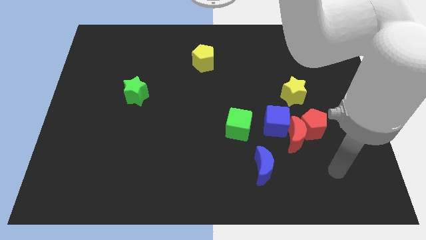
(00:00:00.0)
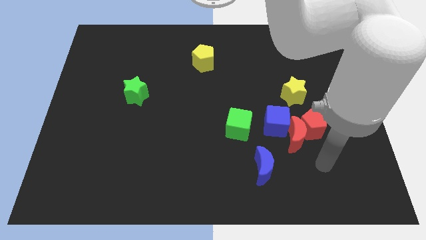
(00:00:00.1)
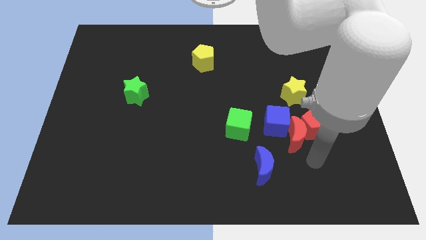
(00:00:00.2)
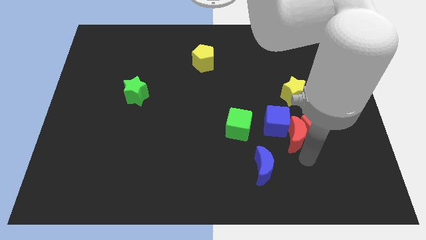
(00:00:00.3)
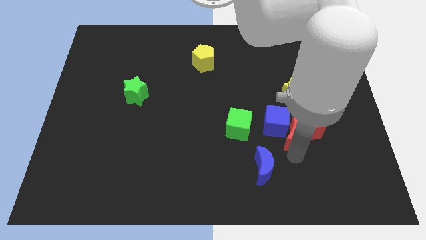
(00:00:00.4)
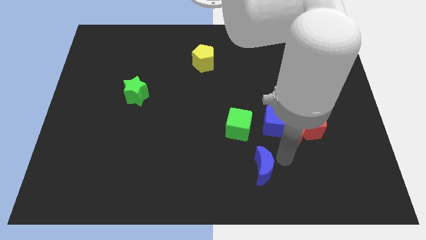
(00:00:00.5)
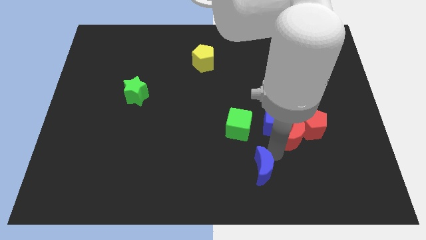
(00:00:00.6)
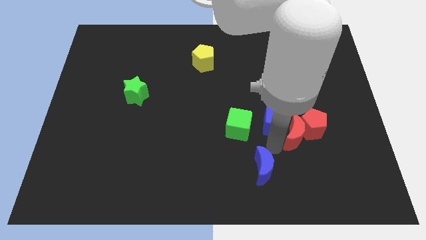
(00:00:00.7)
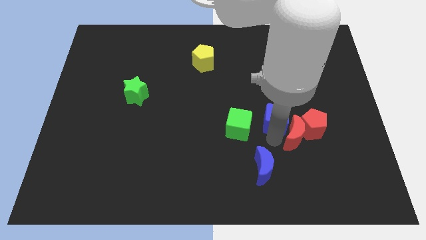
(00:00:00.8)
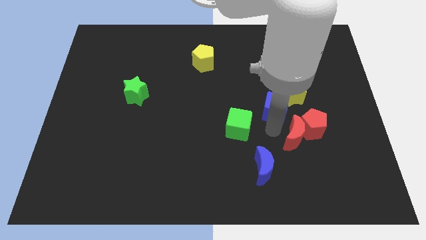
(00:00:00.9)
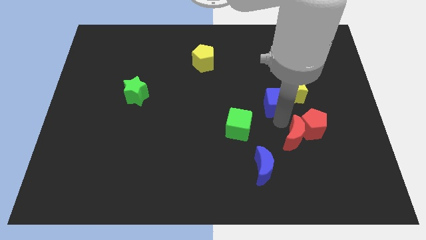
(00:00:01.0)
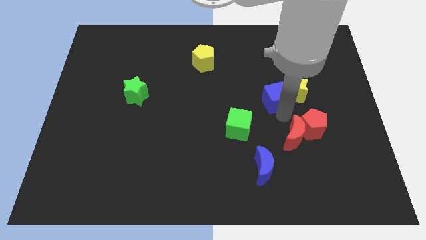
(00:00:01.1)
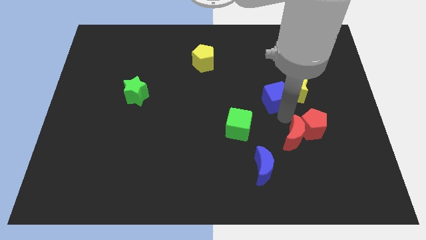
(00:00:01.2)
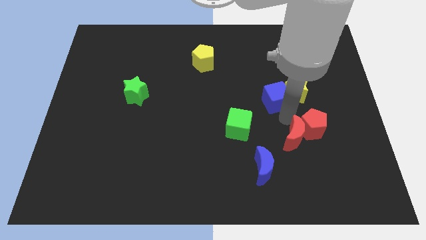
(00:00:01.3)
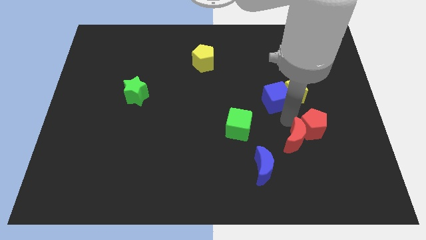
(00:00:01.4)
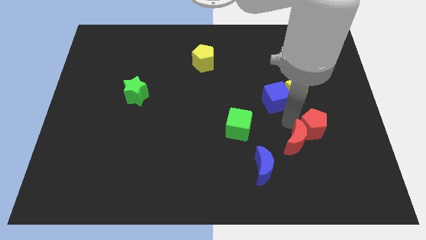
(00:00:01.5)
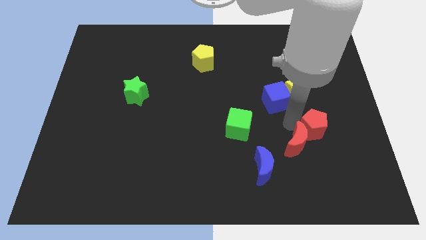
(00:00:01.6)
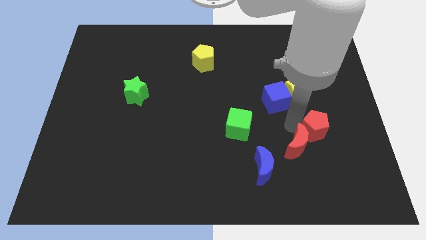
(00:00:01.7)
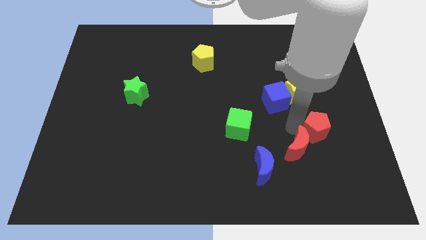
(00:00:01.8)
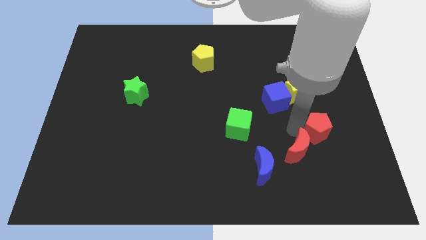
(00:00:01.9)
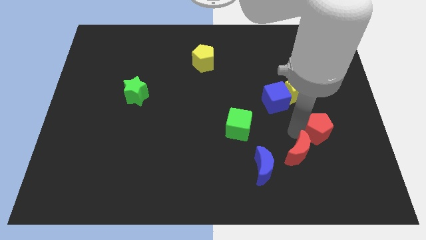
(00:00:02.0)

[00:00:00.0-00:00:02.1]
separate the red moon from the red pentagon and blue cube

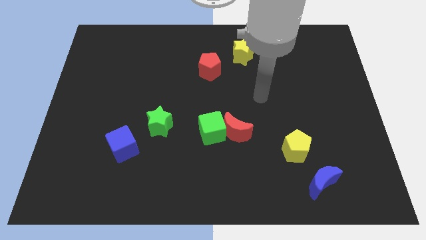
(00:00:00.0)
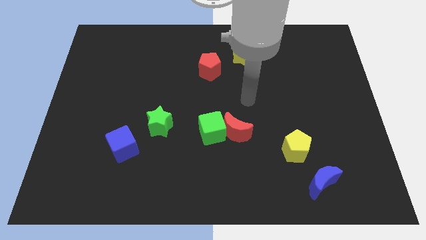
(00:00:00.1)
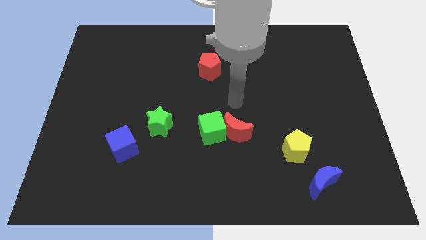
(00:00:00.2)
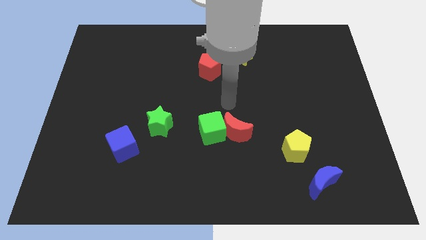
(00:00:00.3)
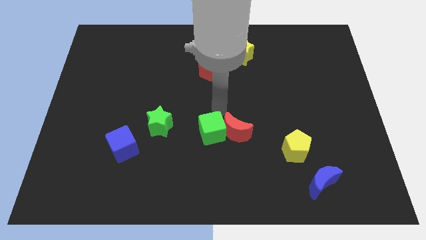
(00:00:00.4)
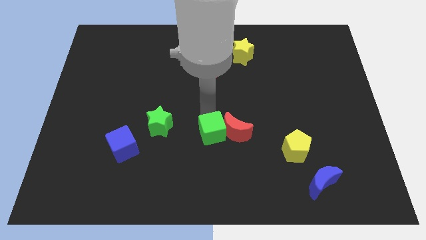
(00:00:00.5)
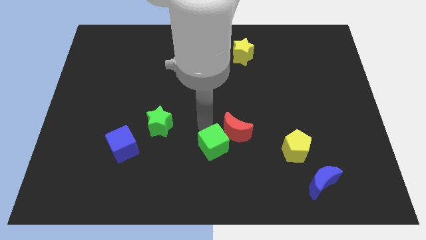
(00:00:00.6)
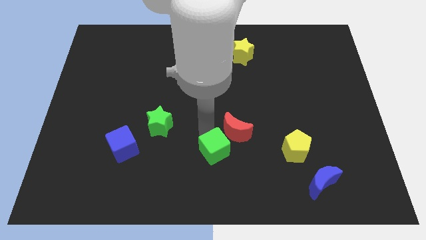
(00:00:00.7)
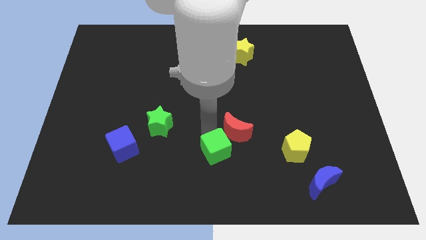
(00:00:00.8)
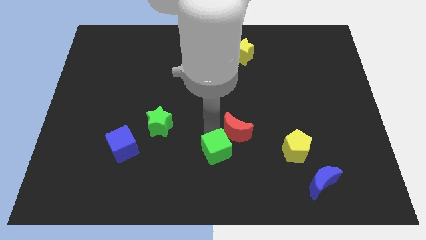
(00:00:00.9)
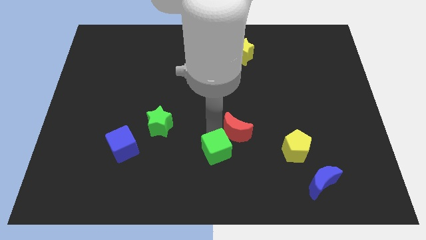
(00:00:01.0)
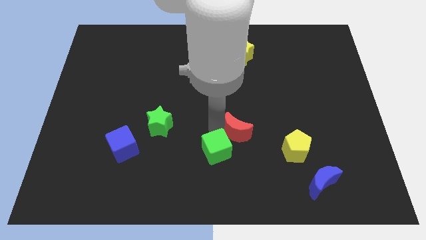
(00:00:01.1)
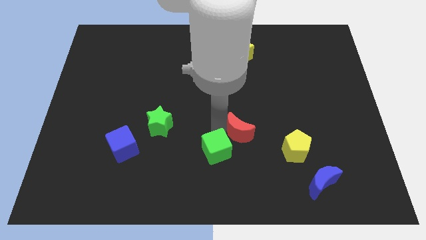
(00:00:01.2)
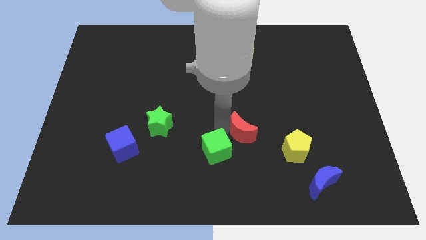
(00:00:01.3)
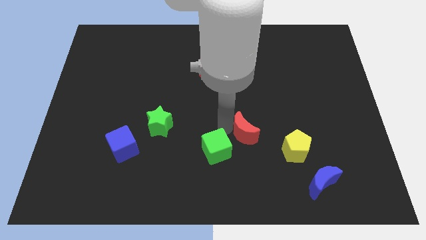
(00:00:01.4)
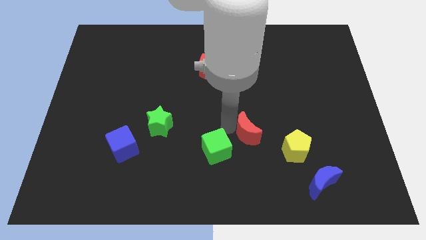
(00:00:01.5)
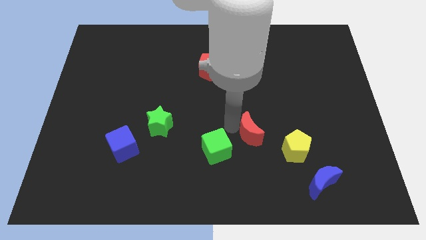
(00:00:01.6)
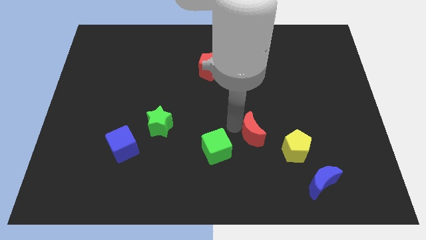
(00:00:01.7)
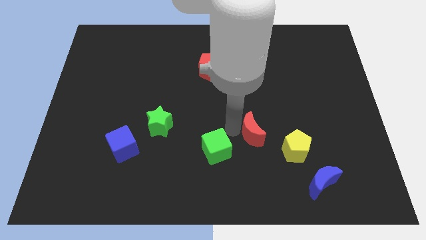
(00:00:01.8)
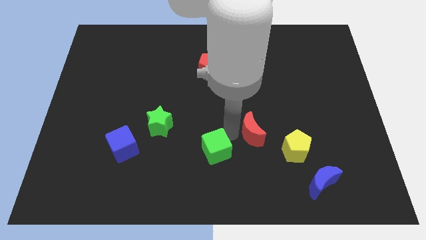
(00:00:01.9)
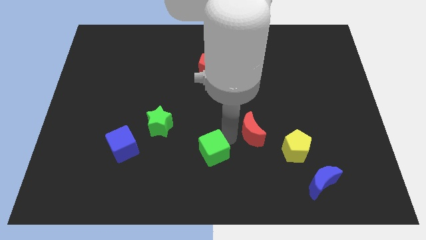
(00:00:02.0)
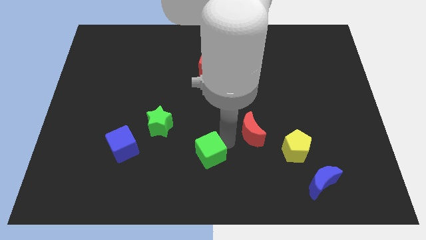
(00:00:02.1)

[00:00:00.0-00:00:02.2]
move the red moon away from the green cube

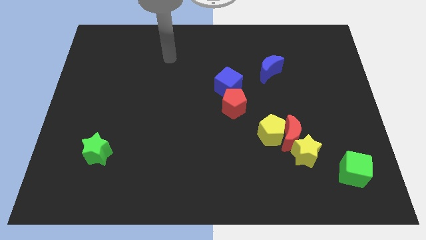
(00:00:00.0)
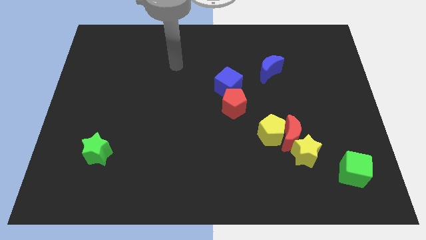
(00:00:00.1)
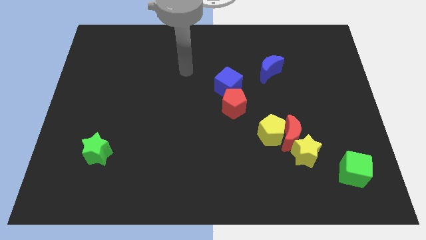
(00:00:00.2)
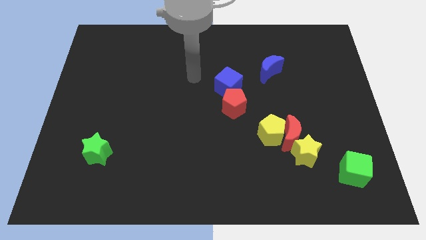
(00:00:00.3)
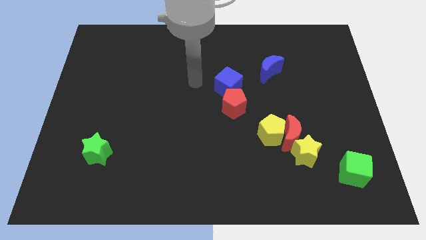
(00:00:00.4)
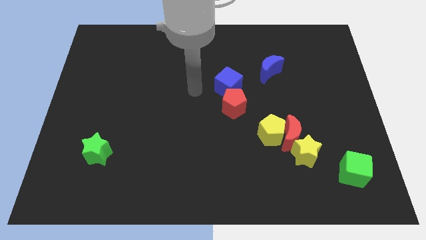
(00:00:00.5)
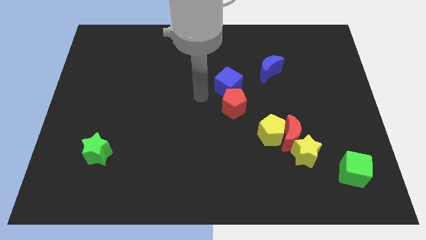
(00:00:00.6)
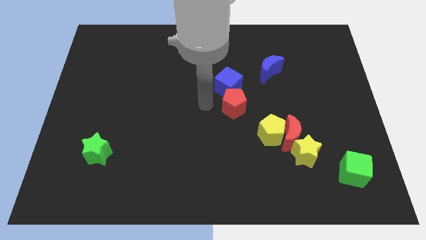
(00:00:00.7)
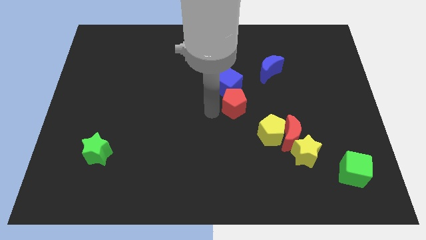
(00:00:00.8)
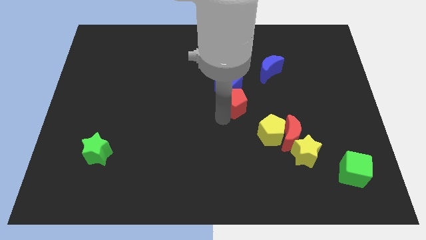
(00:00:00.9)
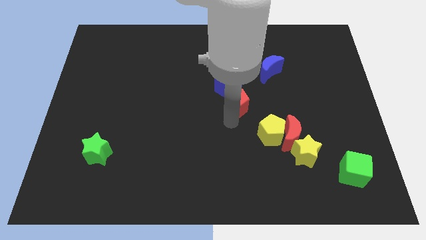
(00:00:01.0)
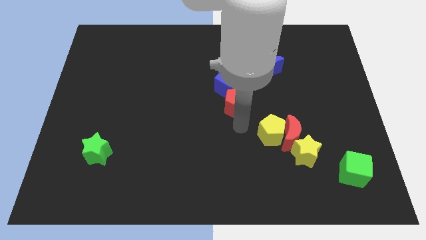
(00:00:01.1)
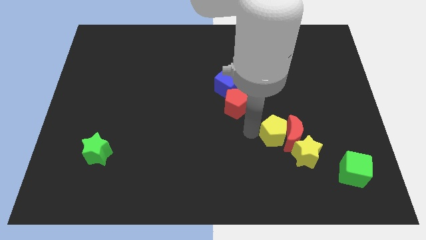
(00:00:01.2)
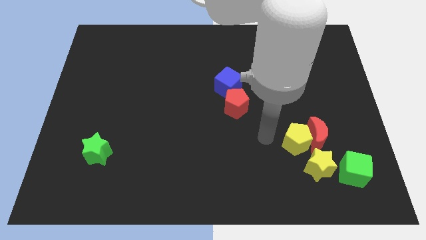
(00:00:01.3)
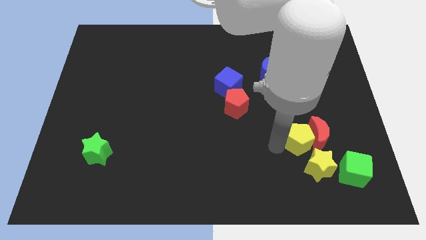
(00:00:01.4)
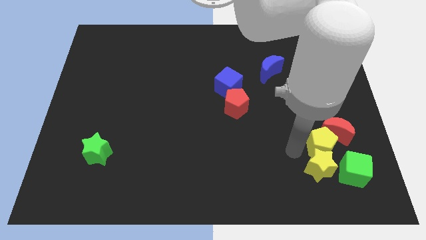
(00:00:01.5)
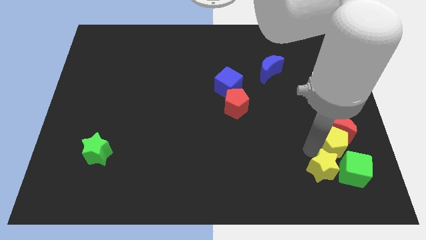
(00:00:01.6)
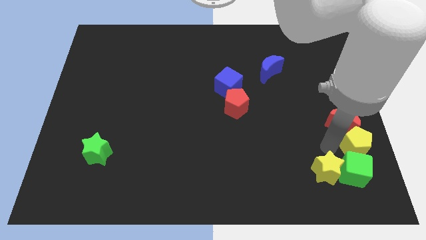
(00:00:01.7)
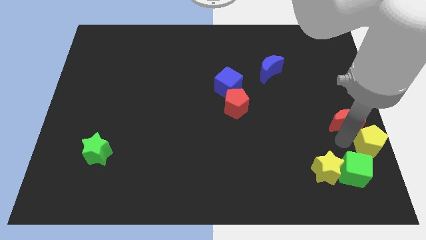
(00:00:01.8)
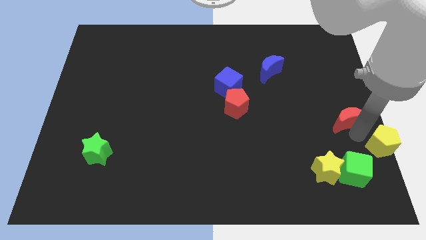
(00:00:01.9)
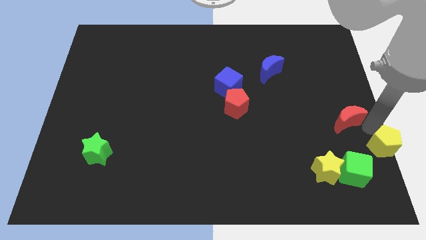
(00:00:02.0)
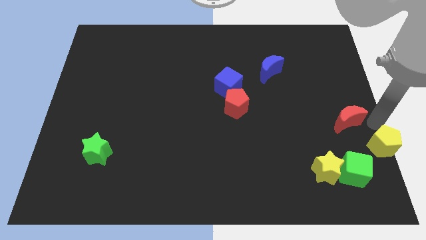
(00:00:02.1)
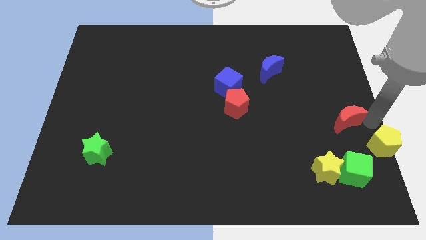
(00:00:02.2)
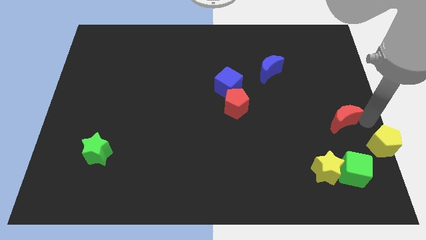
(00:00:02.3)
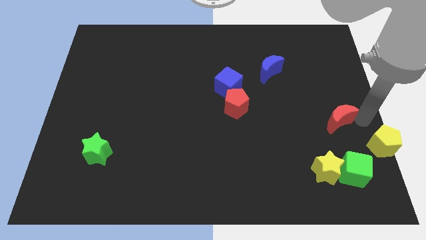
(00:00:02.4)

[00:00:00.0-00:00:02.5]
move the red moon away from the yellow pentagon and yellow star

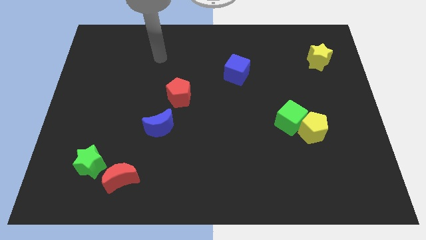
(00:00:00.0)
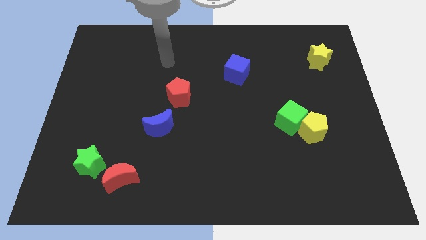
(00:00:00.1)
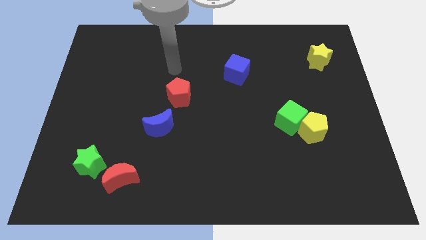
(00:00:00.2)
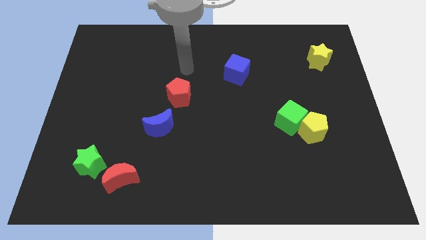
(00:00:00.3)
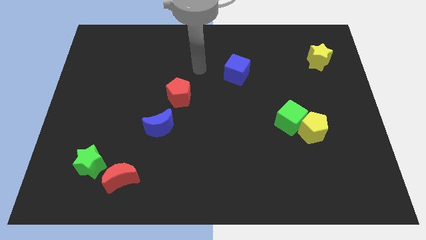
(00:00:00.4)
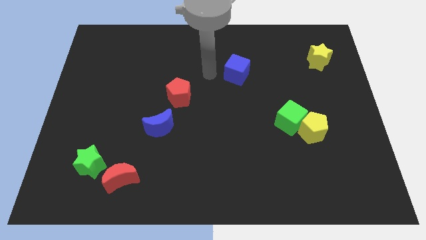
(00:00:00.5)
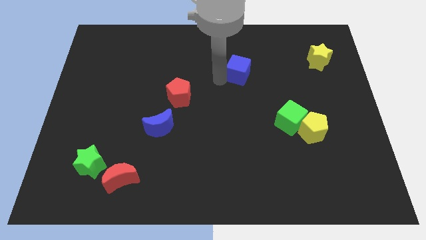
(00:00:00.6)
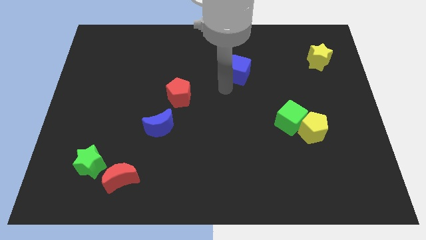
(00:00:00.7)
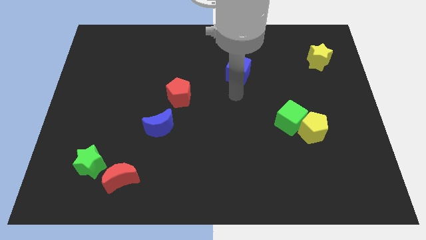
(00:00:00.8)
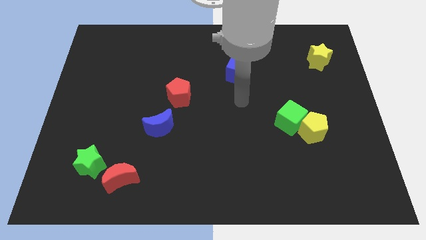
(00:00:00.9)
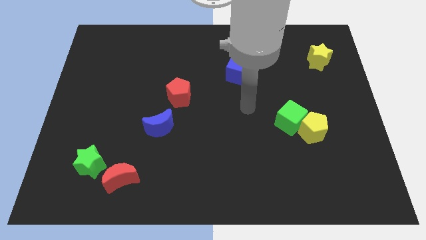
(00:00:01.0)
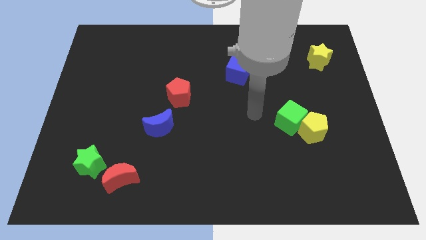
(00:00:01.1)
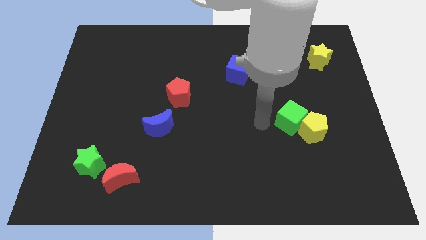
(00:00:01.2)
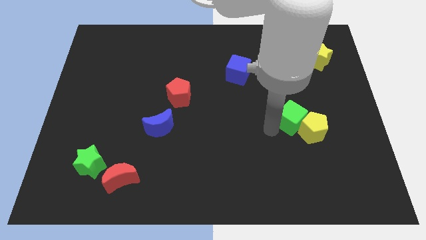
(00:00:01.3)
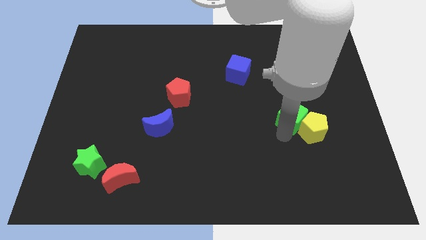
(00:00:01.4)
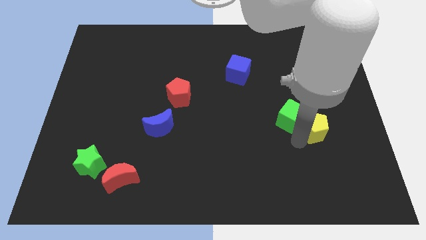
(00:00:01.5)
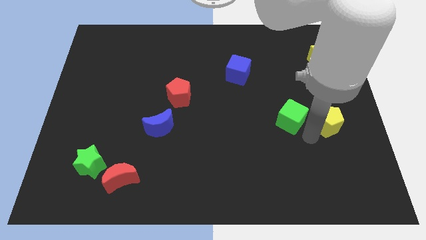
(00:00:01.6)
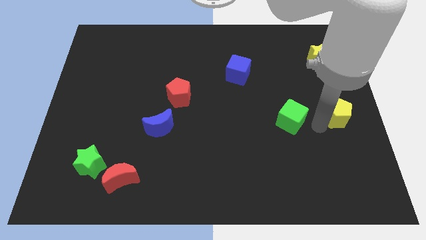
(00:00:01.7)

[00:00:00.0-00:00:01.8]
separate the green cube from the yellow pentagon

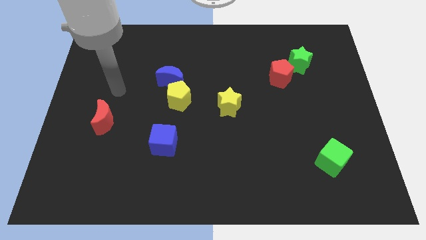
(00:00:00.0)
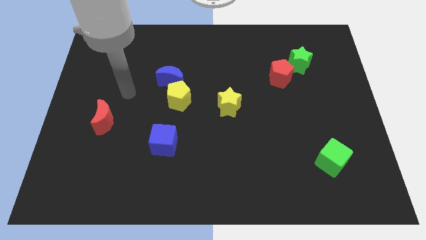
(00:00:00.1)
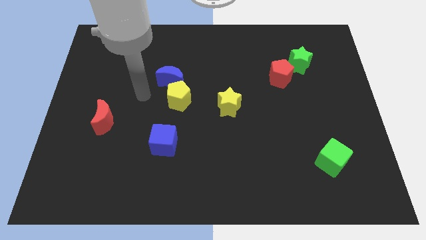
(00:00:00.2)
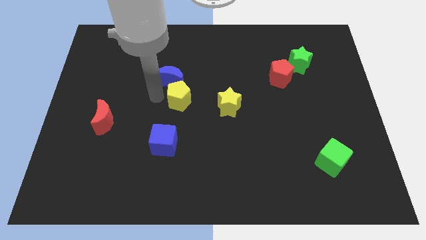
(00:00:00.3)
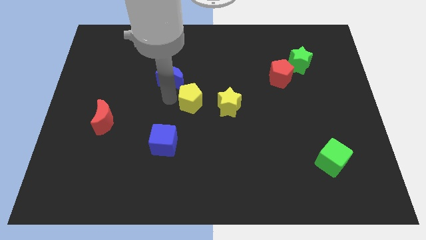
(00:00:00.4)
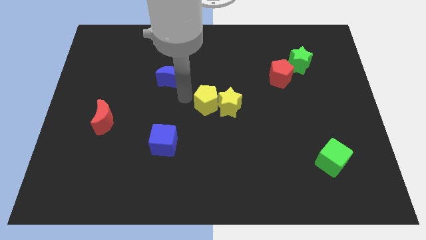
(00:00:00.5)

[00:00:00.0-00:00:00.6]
move the blue moon away from the yellow pentagon
